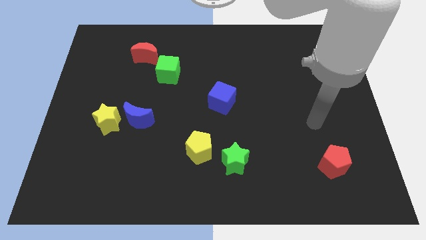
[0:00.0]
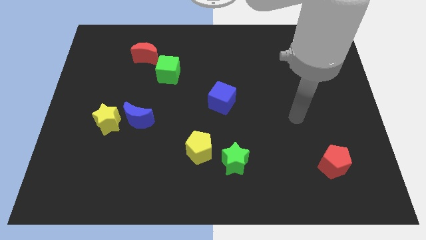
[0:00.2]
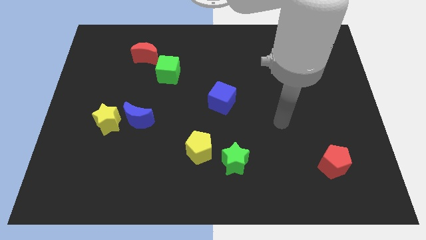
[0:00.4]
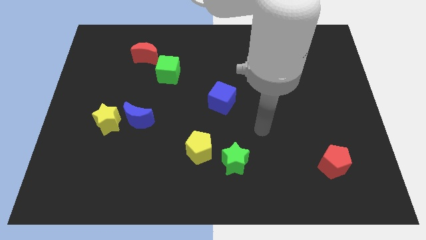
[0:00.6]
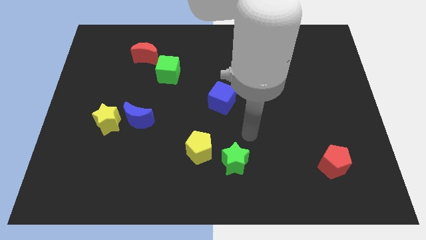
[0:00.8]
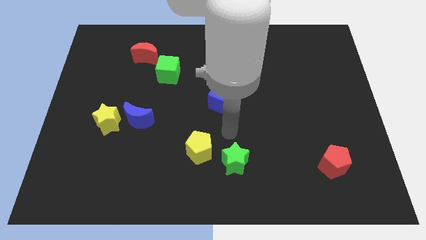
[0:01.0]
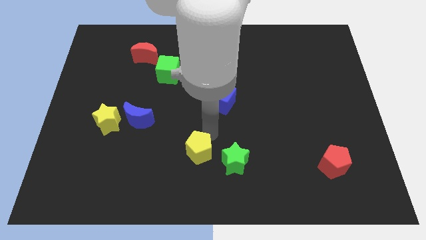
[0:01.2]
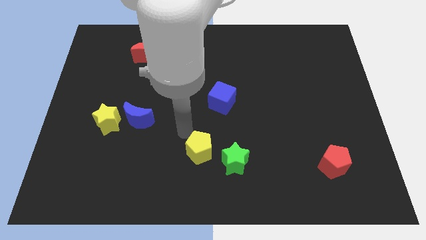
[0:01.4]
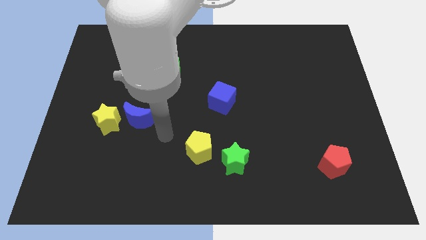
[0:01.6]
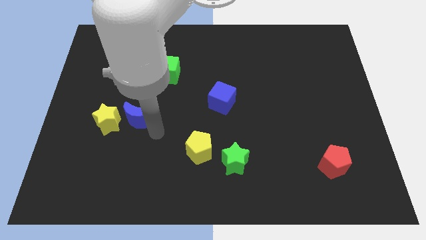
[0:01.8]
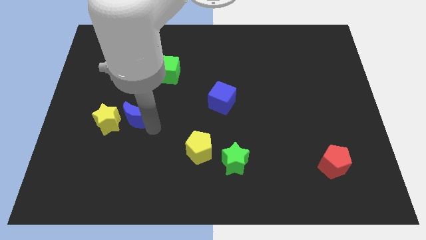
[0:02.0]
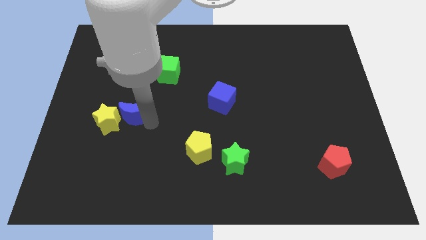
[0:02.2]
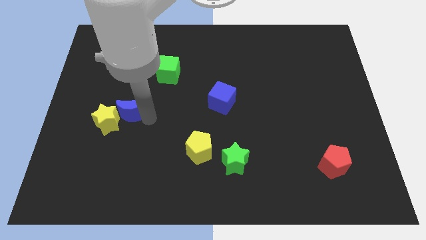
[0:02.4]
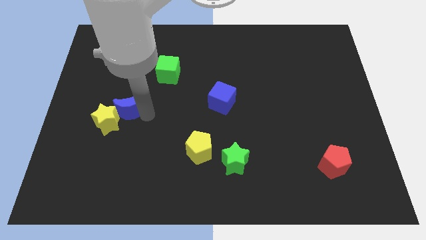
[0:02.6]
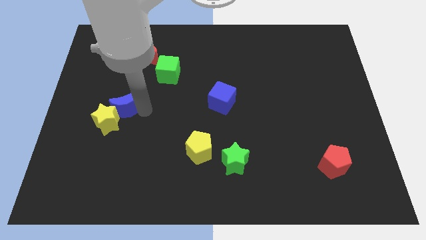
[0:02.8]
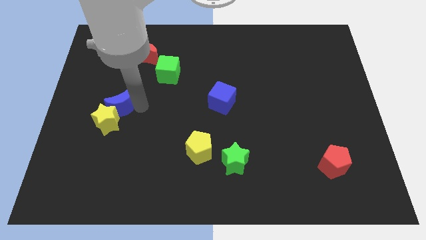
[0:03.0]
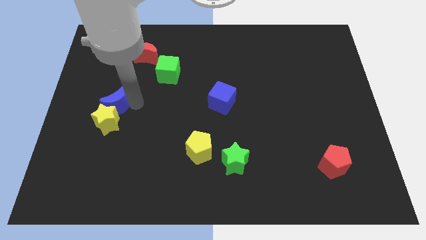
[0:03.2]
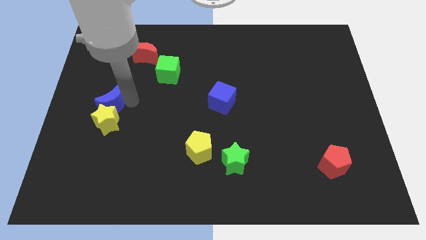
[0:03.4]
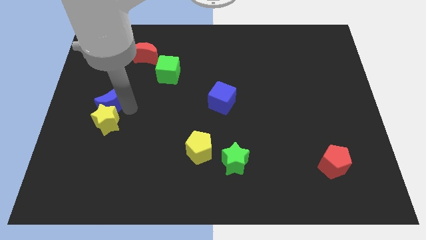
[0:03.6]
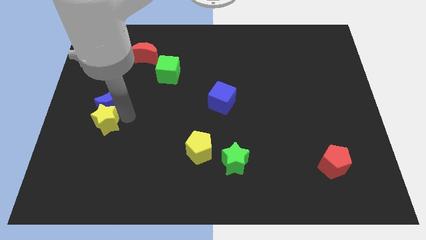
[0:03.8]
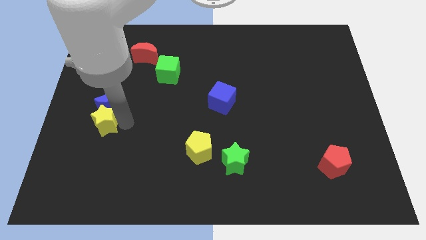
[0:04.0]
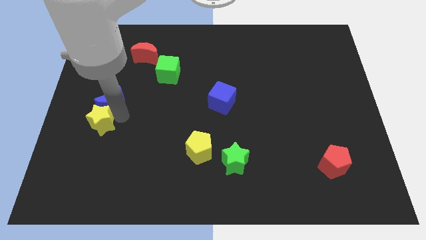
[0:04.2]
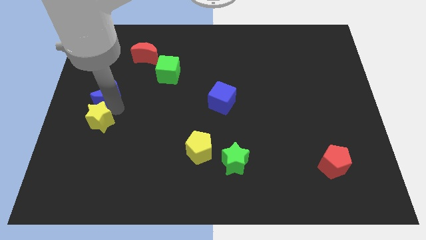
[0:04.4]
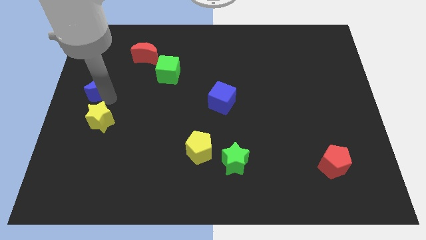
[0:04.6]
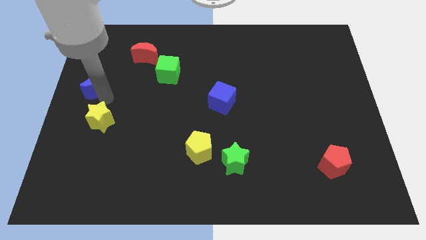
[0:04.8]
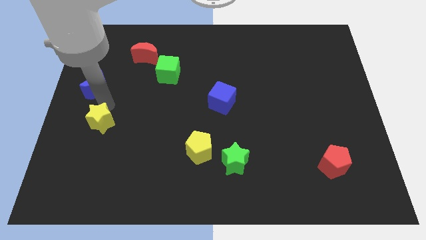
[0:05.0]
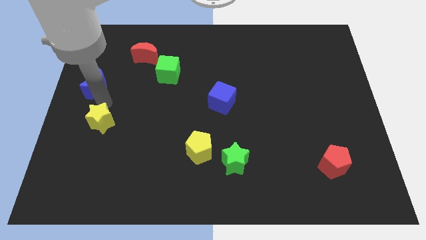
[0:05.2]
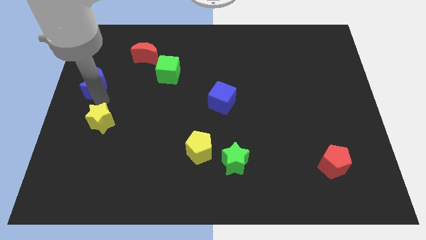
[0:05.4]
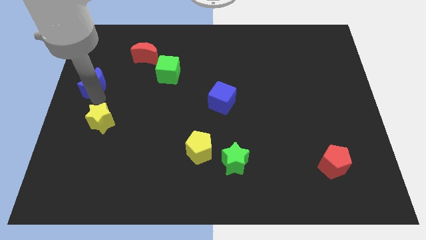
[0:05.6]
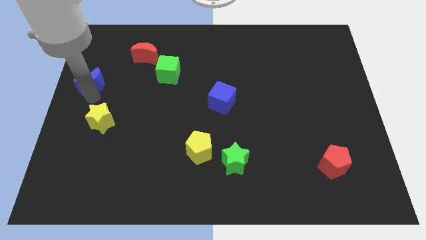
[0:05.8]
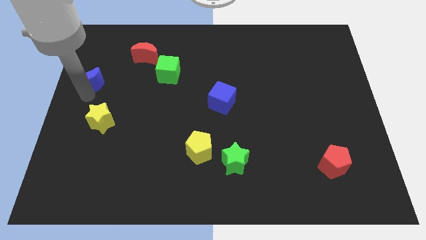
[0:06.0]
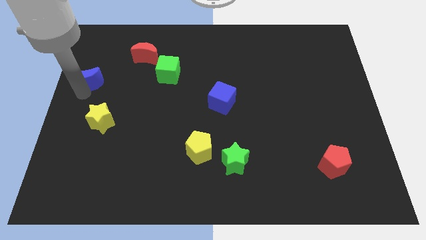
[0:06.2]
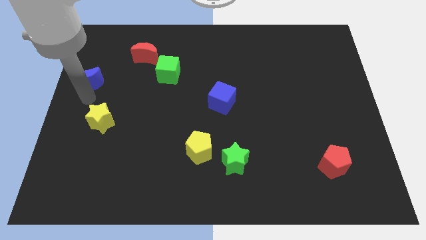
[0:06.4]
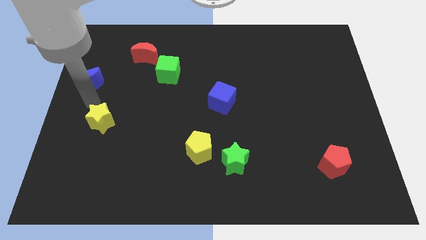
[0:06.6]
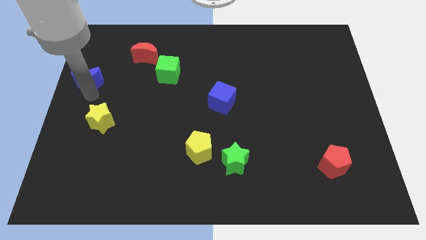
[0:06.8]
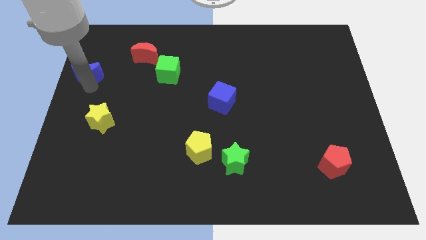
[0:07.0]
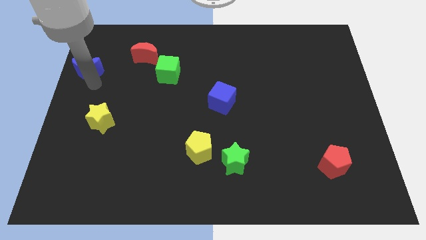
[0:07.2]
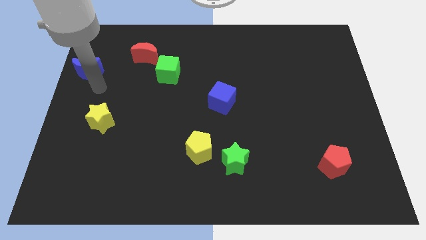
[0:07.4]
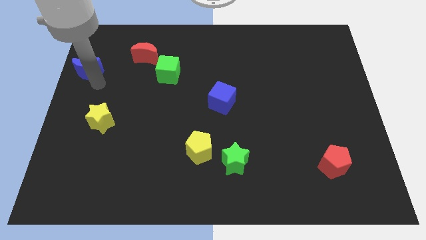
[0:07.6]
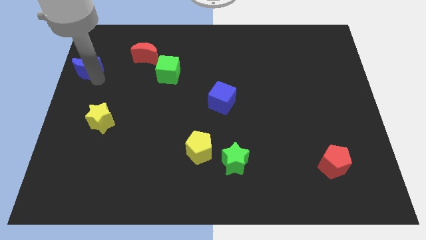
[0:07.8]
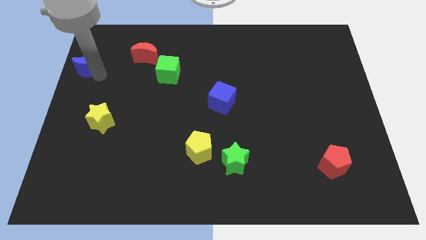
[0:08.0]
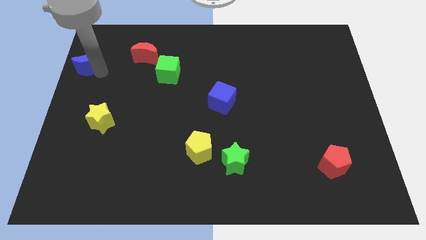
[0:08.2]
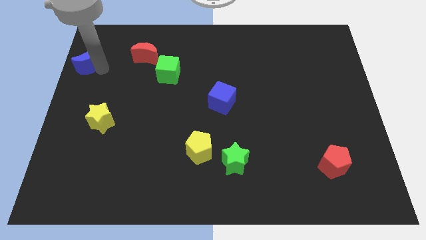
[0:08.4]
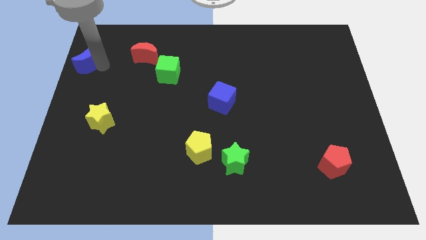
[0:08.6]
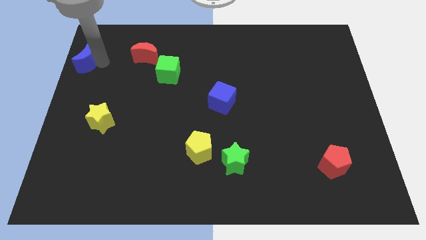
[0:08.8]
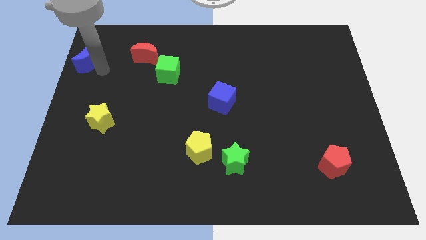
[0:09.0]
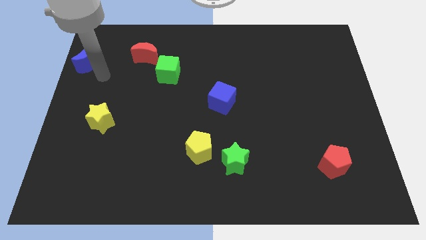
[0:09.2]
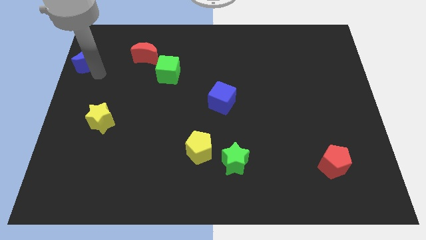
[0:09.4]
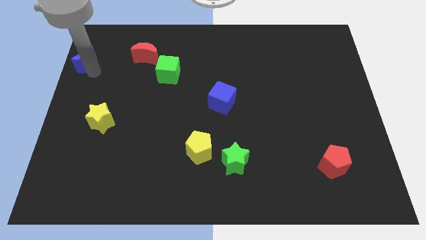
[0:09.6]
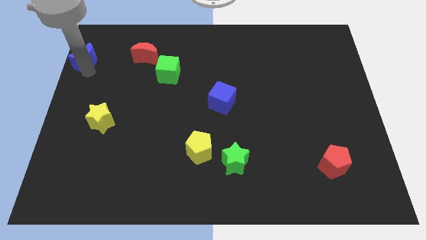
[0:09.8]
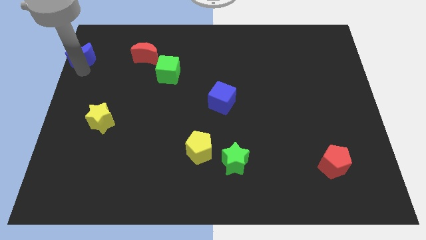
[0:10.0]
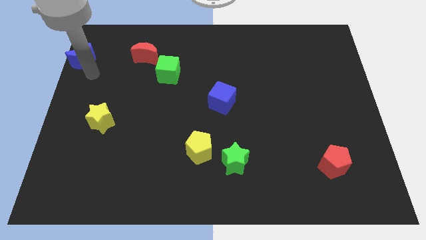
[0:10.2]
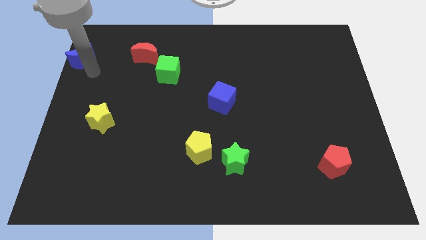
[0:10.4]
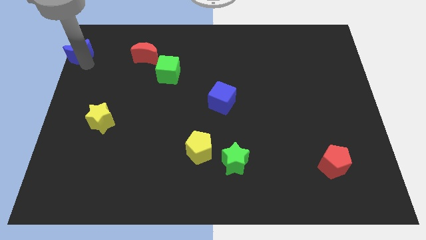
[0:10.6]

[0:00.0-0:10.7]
push the blue moon to the top left corner

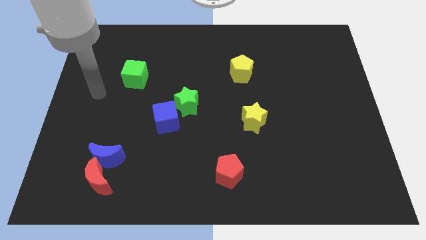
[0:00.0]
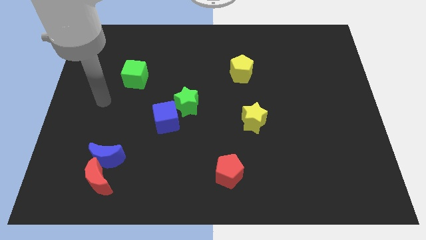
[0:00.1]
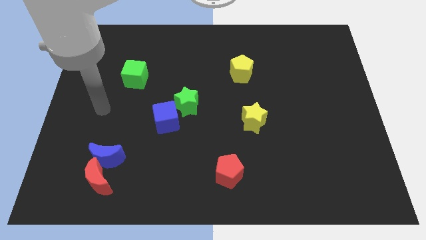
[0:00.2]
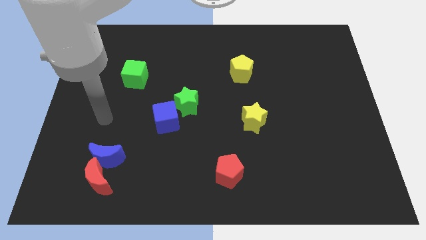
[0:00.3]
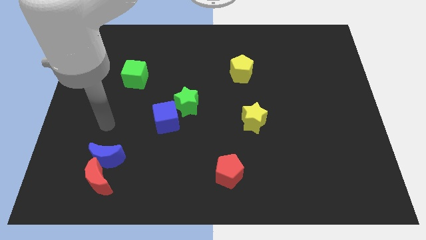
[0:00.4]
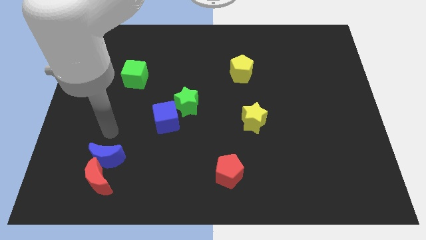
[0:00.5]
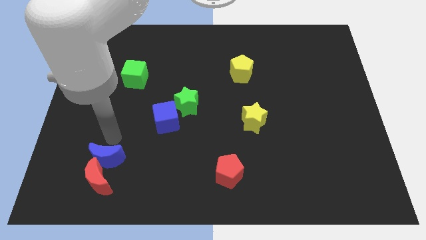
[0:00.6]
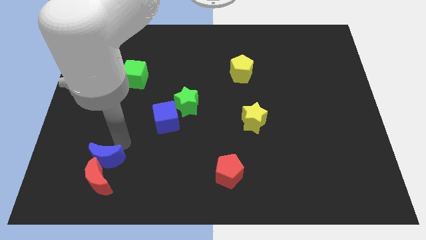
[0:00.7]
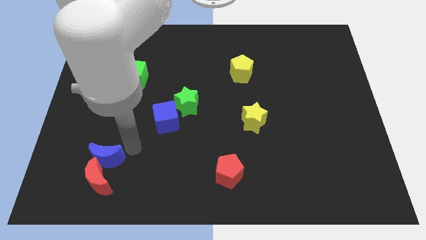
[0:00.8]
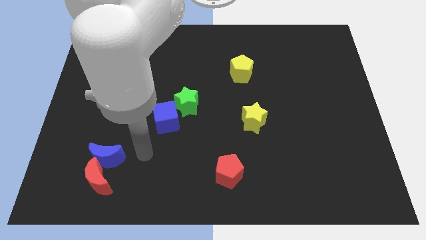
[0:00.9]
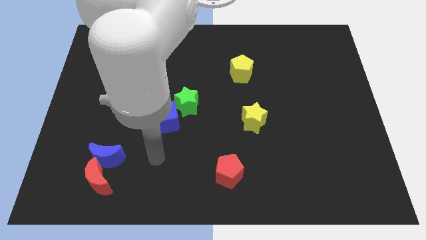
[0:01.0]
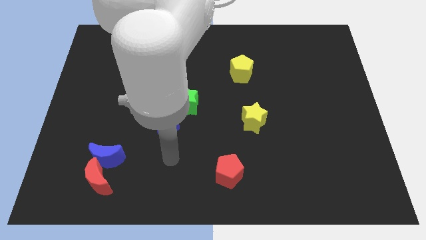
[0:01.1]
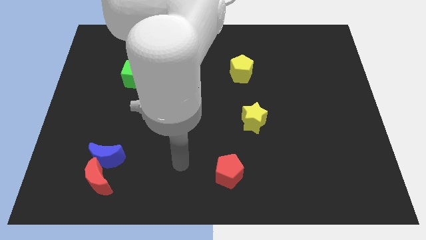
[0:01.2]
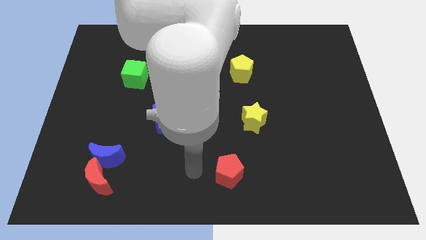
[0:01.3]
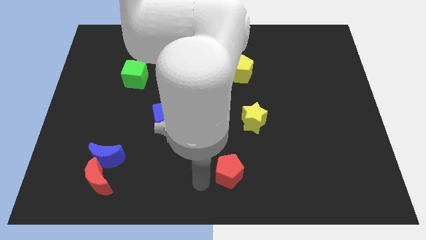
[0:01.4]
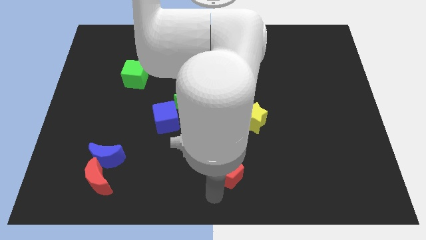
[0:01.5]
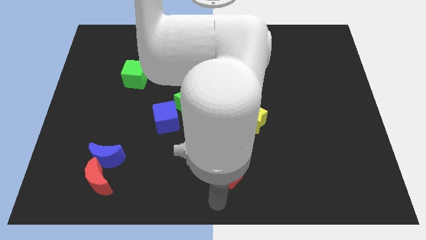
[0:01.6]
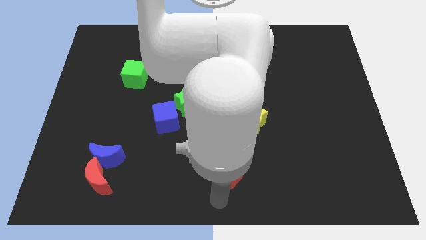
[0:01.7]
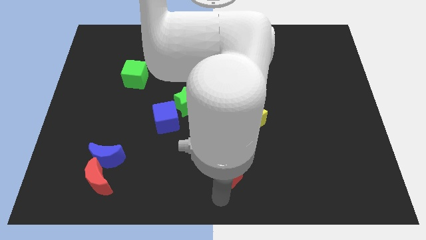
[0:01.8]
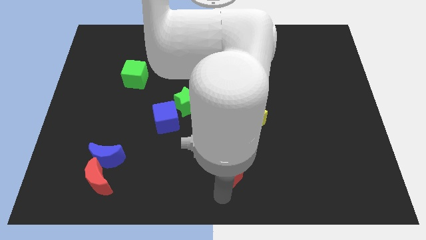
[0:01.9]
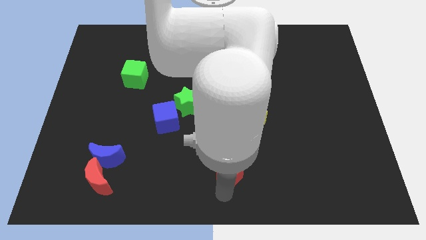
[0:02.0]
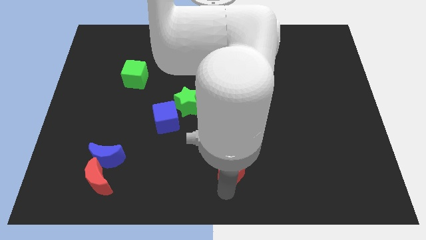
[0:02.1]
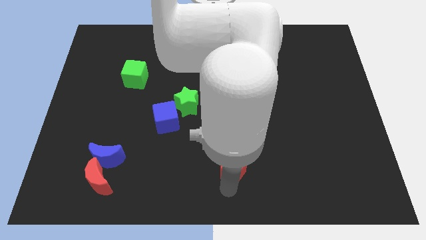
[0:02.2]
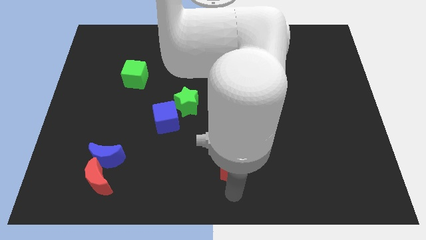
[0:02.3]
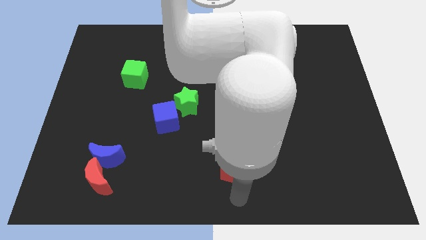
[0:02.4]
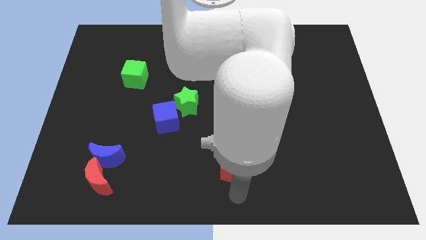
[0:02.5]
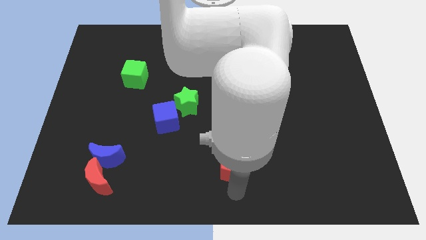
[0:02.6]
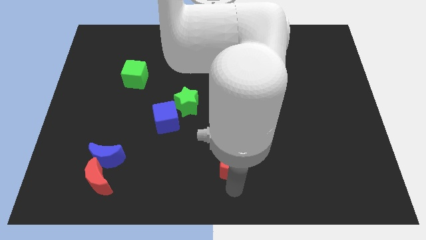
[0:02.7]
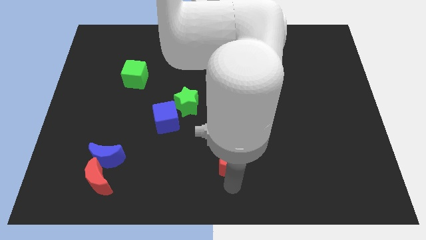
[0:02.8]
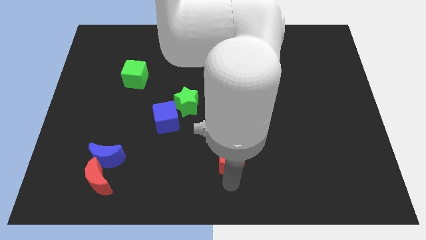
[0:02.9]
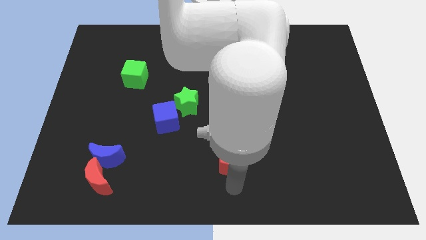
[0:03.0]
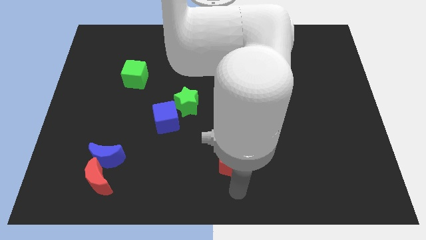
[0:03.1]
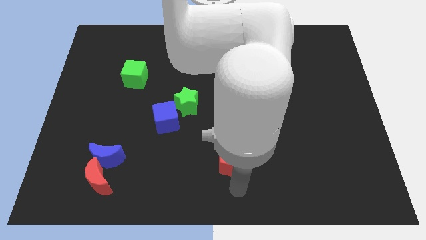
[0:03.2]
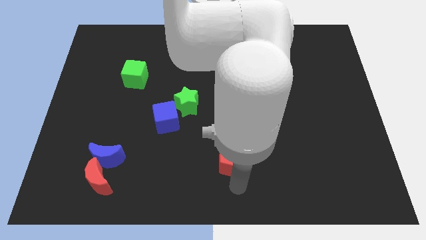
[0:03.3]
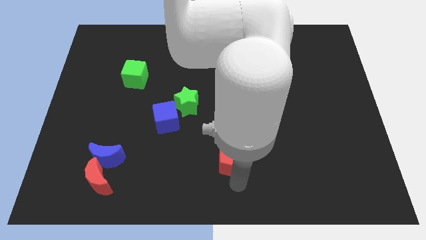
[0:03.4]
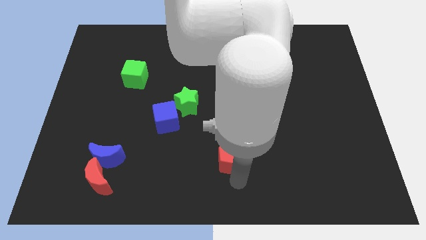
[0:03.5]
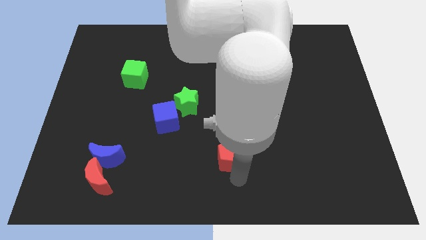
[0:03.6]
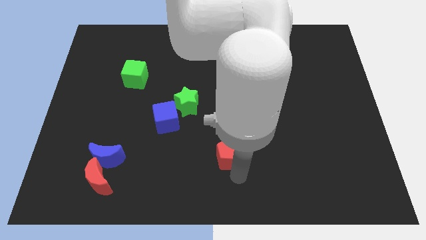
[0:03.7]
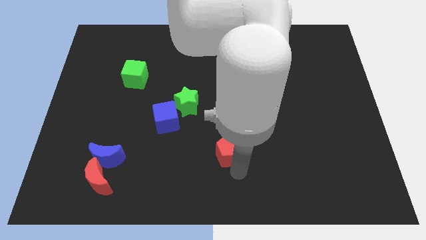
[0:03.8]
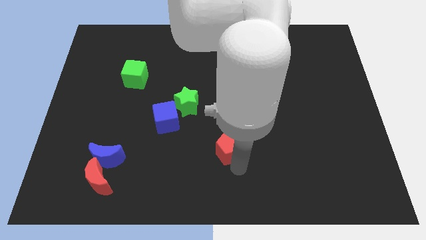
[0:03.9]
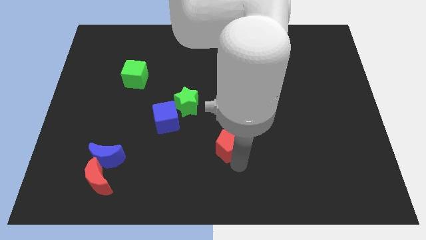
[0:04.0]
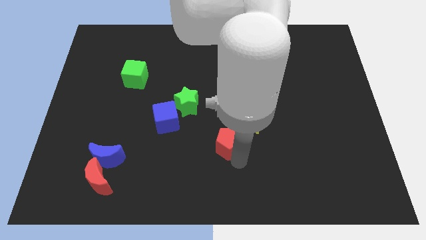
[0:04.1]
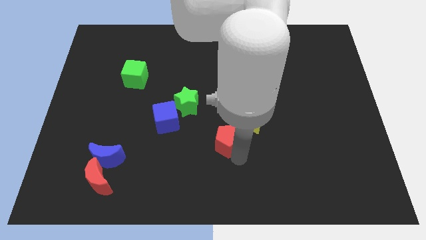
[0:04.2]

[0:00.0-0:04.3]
slide the red pentagon to the center of the board
